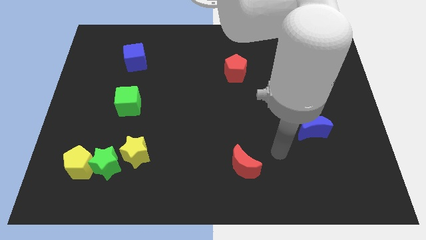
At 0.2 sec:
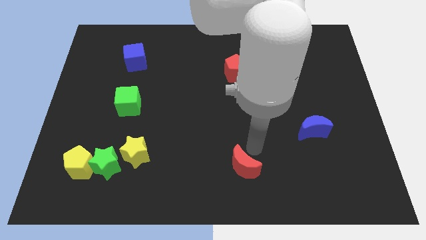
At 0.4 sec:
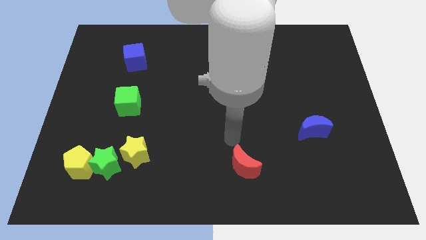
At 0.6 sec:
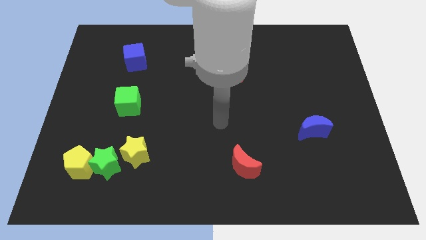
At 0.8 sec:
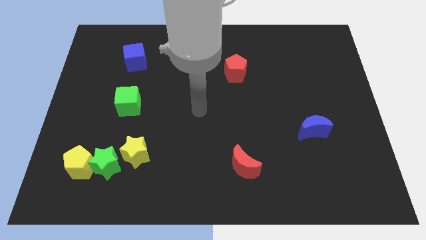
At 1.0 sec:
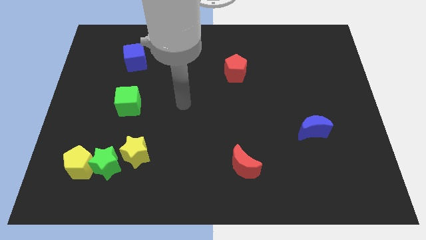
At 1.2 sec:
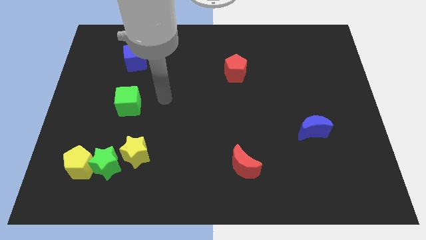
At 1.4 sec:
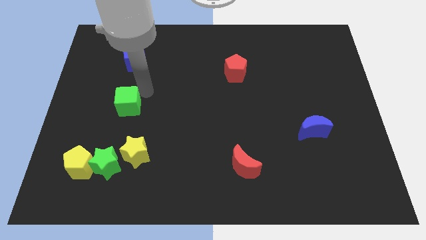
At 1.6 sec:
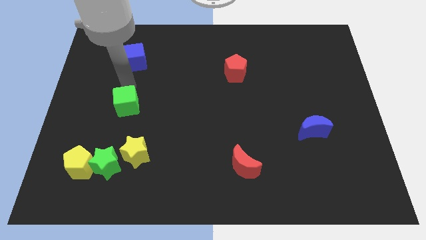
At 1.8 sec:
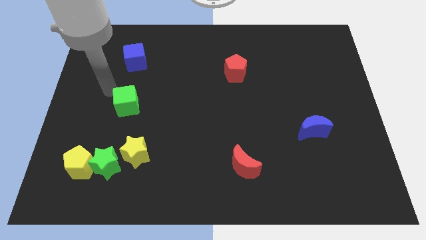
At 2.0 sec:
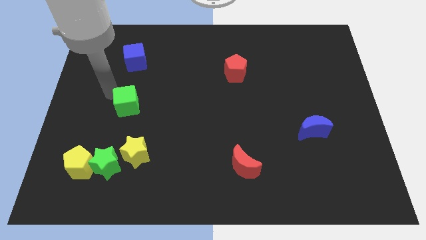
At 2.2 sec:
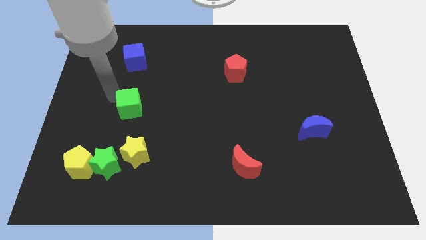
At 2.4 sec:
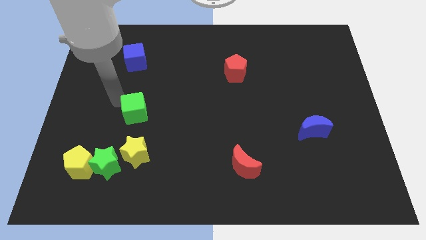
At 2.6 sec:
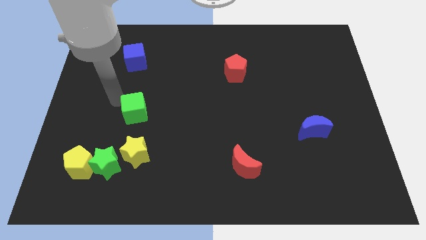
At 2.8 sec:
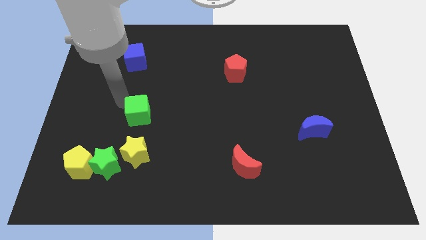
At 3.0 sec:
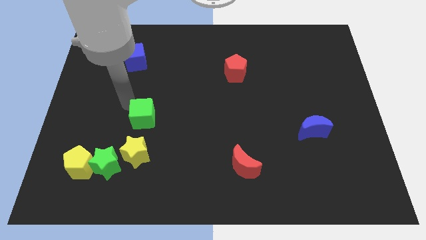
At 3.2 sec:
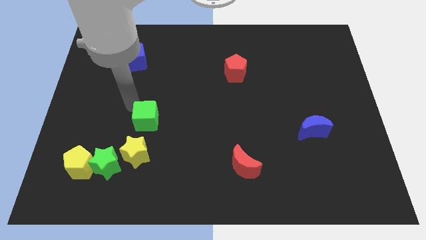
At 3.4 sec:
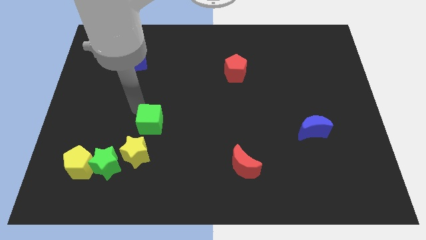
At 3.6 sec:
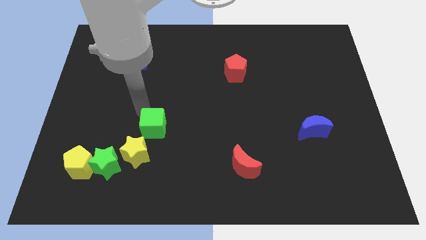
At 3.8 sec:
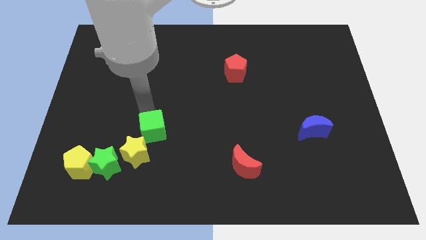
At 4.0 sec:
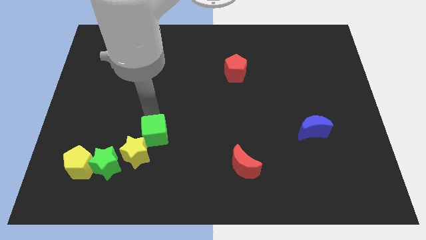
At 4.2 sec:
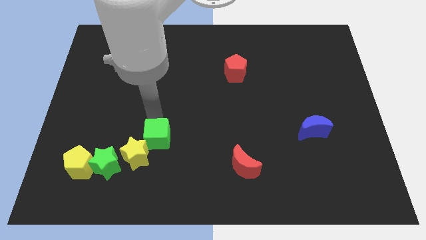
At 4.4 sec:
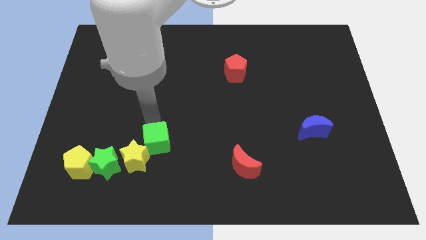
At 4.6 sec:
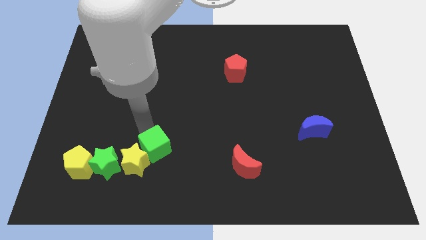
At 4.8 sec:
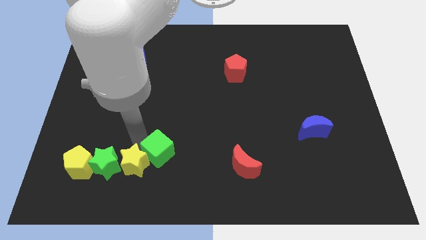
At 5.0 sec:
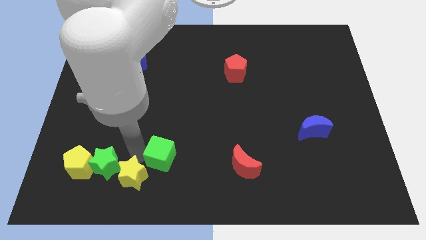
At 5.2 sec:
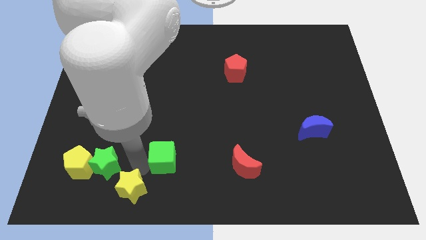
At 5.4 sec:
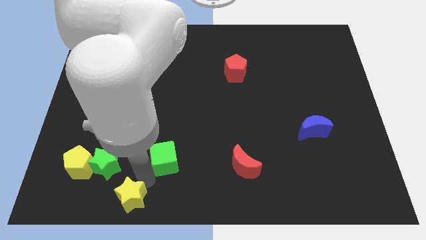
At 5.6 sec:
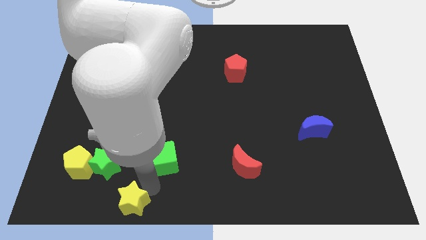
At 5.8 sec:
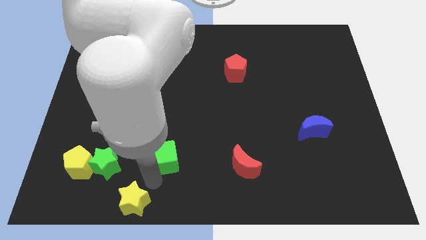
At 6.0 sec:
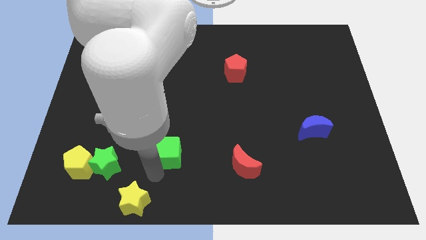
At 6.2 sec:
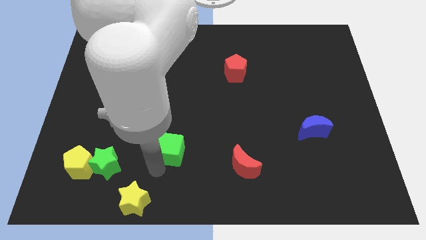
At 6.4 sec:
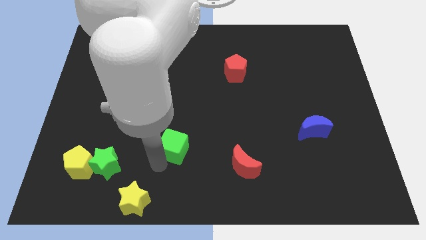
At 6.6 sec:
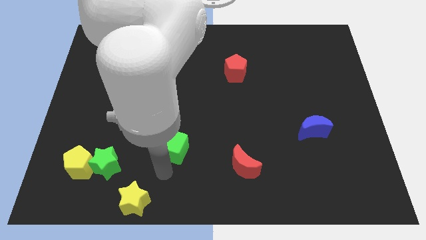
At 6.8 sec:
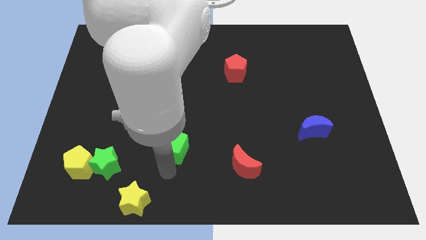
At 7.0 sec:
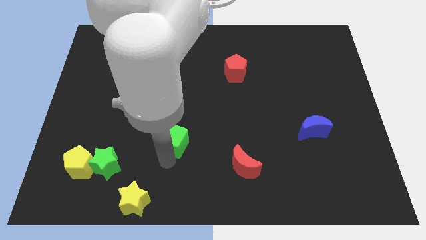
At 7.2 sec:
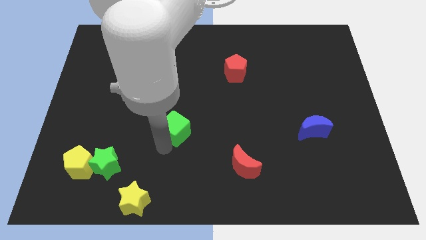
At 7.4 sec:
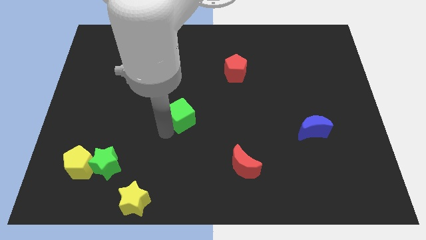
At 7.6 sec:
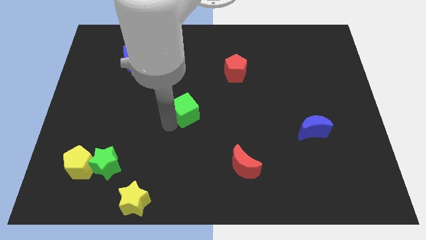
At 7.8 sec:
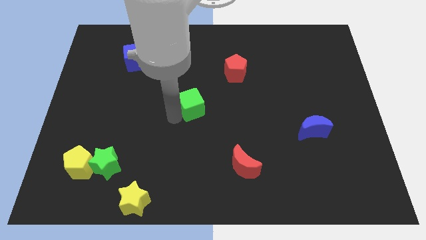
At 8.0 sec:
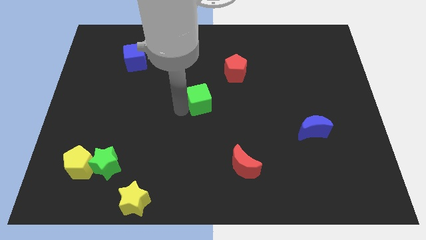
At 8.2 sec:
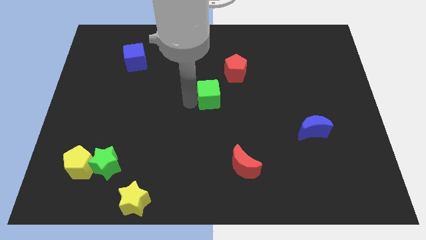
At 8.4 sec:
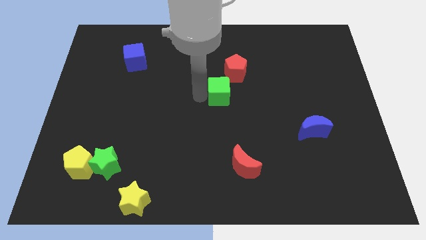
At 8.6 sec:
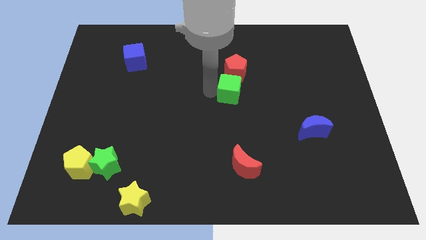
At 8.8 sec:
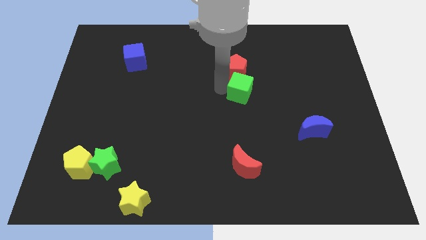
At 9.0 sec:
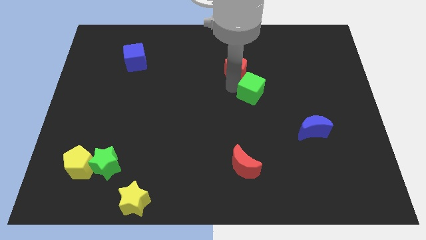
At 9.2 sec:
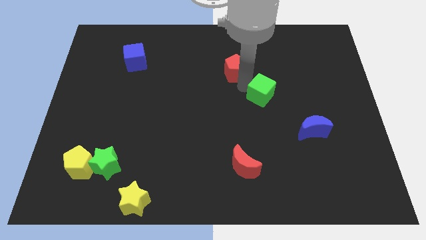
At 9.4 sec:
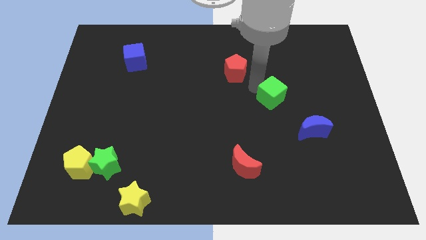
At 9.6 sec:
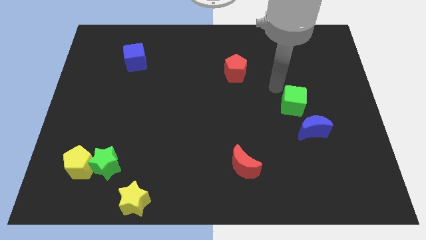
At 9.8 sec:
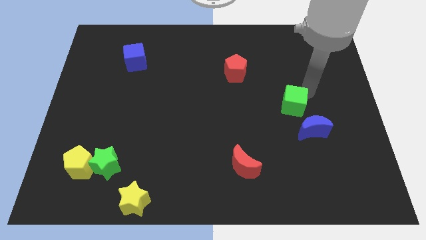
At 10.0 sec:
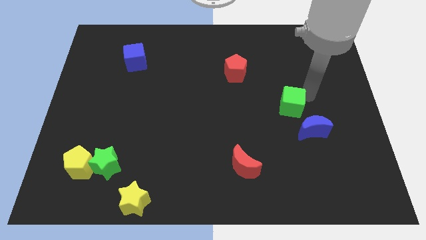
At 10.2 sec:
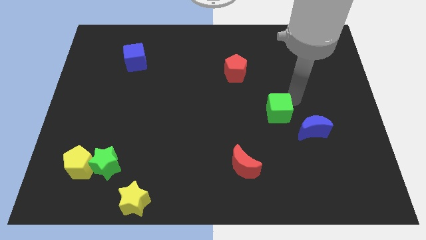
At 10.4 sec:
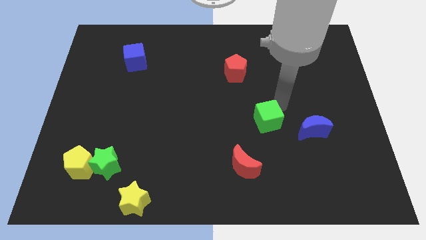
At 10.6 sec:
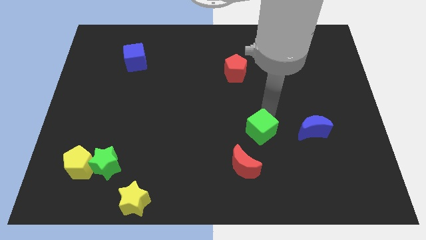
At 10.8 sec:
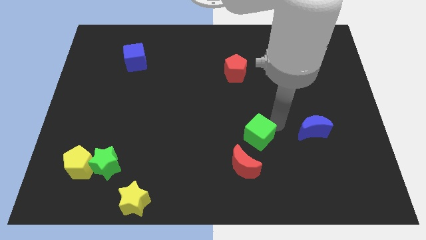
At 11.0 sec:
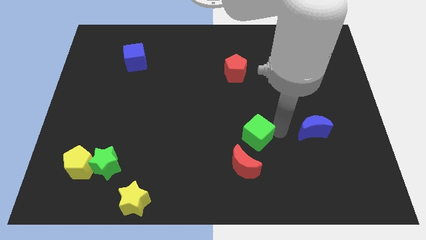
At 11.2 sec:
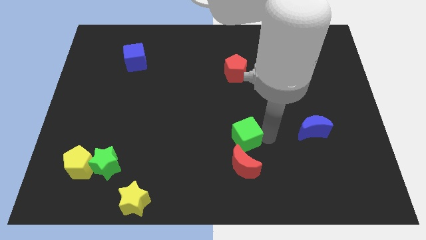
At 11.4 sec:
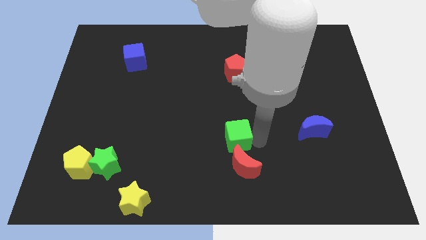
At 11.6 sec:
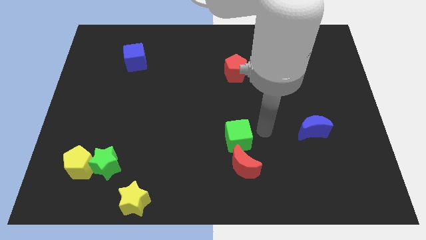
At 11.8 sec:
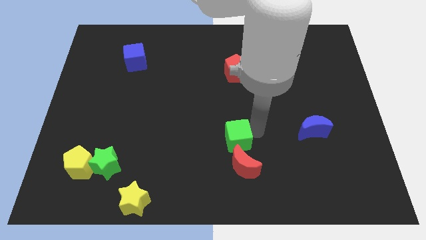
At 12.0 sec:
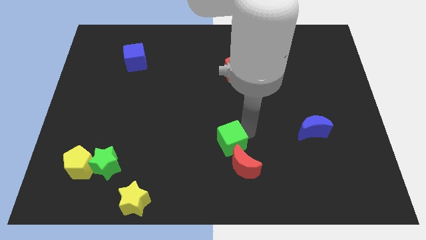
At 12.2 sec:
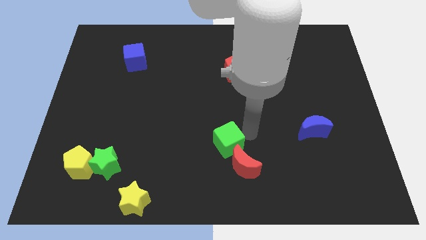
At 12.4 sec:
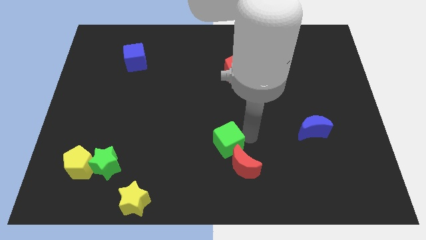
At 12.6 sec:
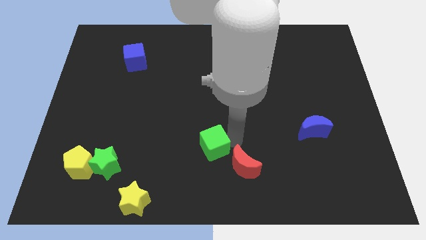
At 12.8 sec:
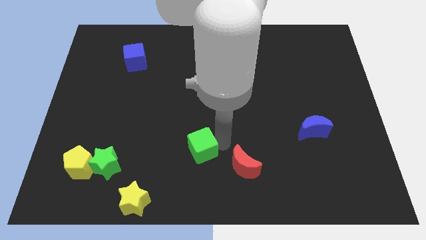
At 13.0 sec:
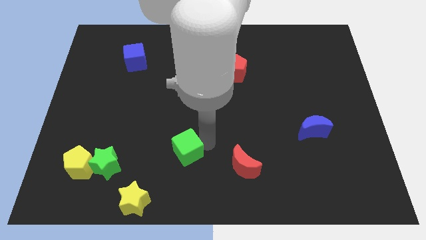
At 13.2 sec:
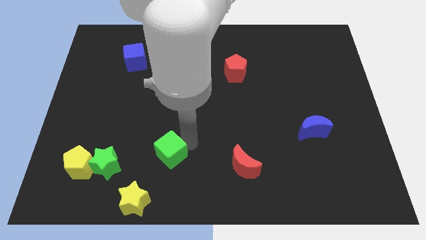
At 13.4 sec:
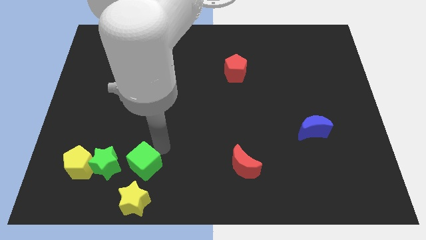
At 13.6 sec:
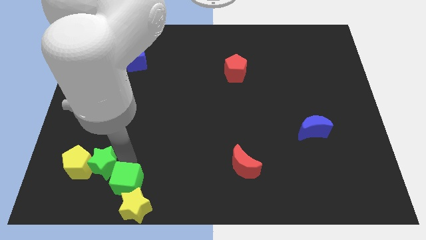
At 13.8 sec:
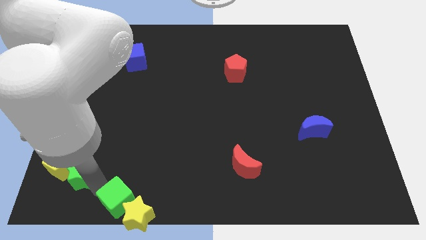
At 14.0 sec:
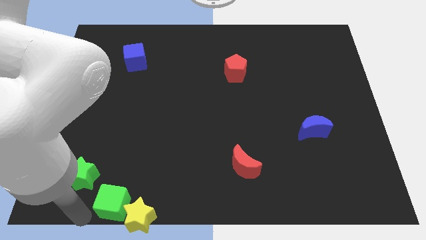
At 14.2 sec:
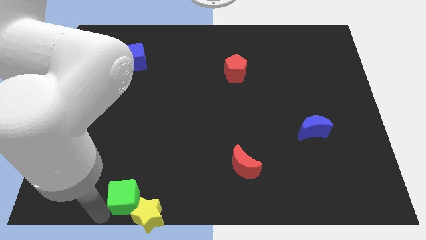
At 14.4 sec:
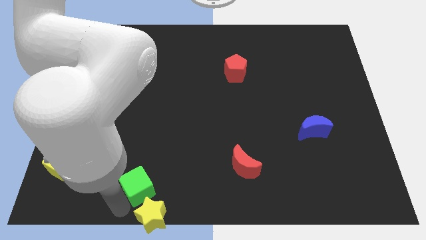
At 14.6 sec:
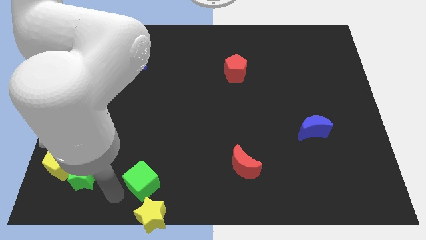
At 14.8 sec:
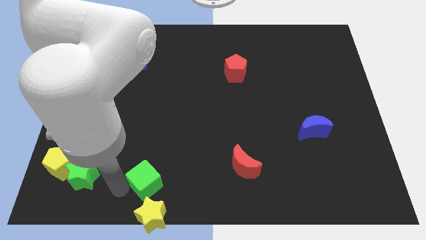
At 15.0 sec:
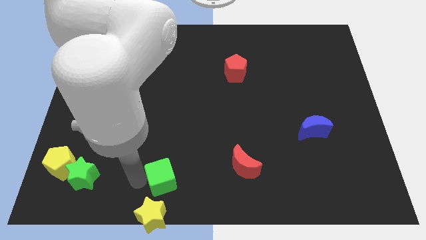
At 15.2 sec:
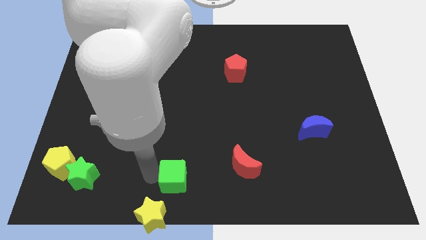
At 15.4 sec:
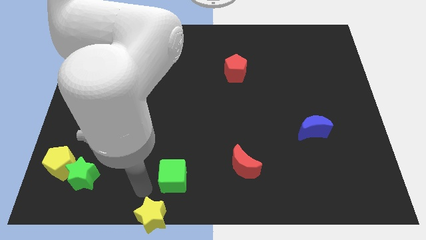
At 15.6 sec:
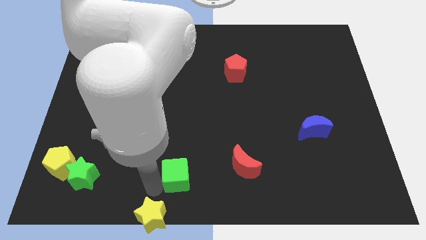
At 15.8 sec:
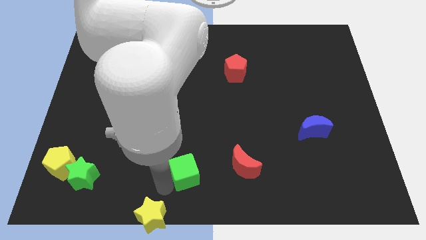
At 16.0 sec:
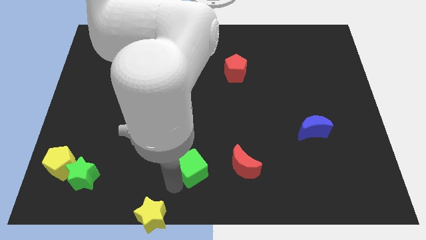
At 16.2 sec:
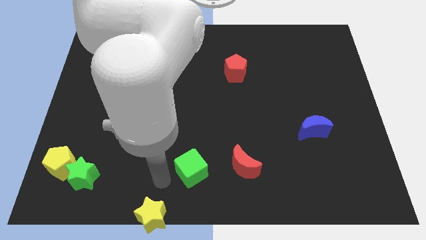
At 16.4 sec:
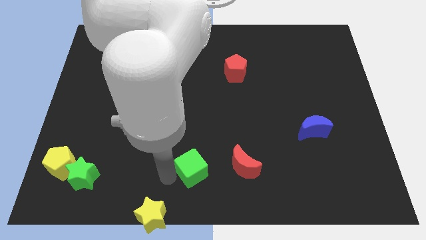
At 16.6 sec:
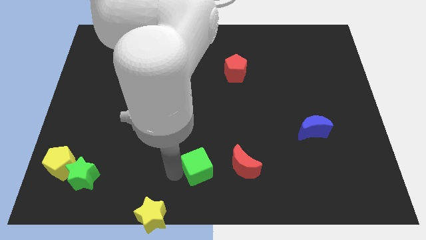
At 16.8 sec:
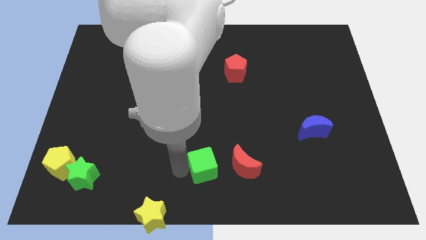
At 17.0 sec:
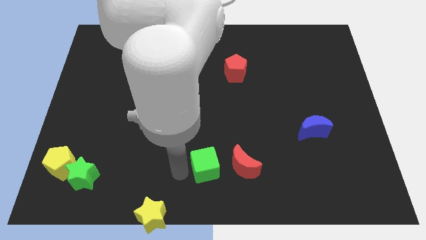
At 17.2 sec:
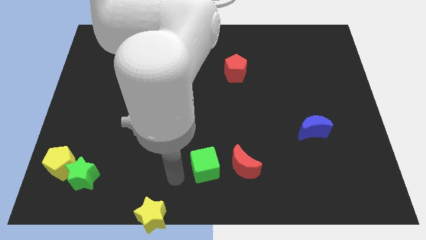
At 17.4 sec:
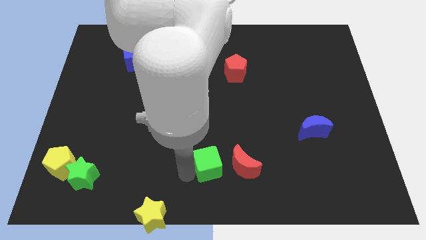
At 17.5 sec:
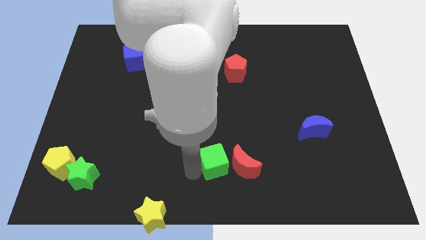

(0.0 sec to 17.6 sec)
move the green cube close to the red moon
